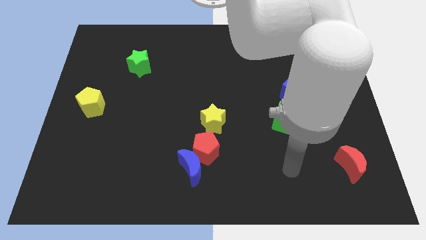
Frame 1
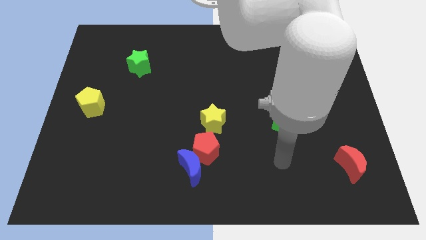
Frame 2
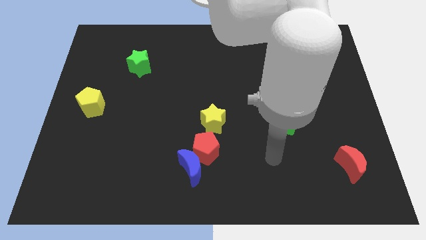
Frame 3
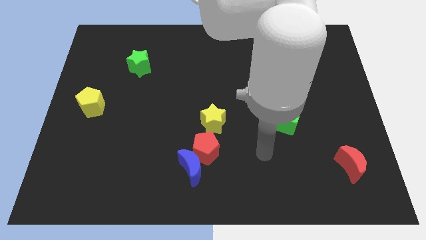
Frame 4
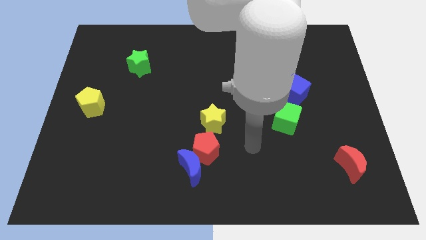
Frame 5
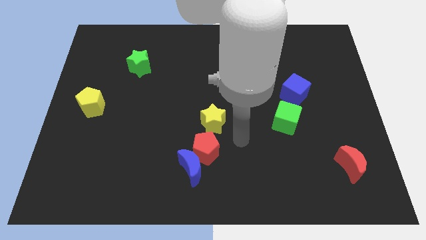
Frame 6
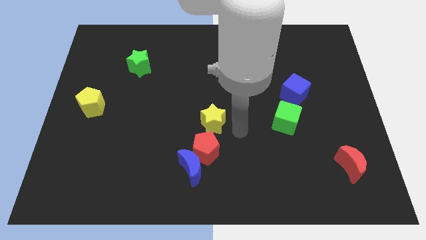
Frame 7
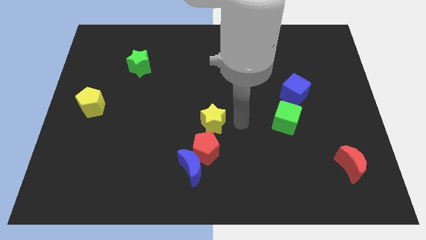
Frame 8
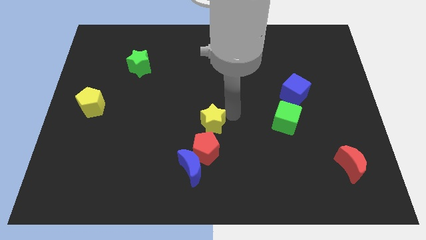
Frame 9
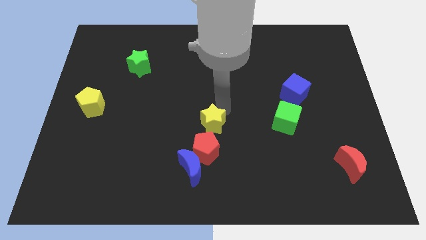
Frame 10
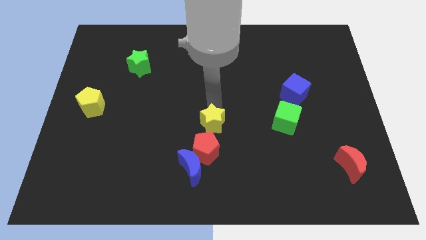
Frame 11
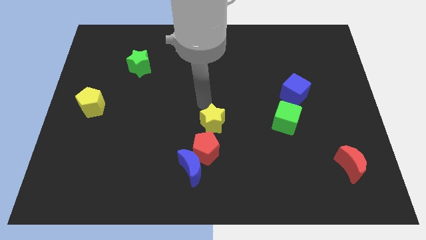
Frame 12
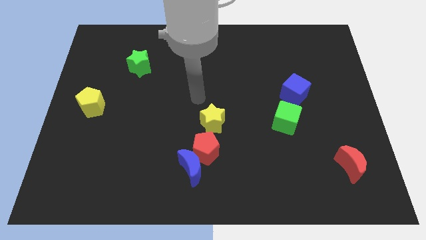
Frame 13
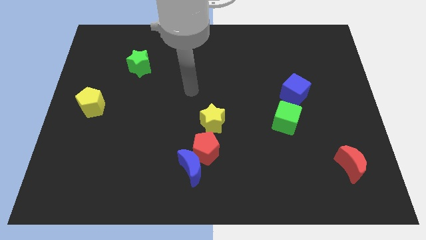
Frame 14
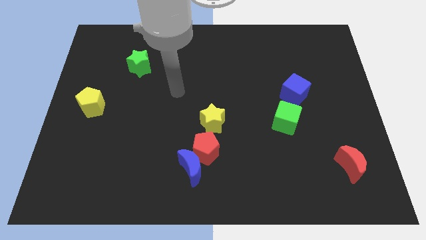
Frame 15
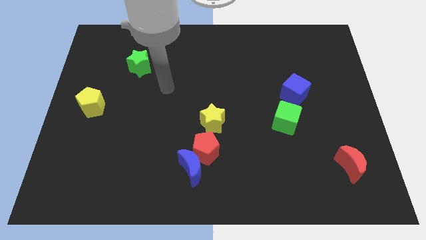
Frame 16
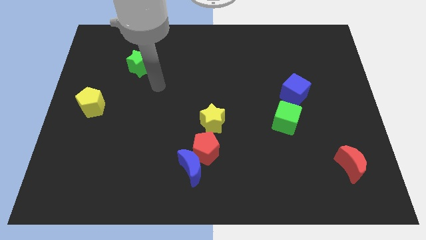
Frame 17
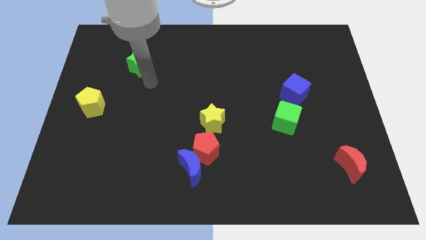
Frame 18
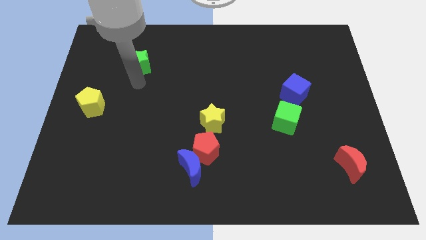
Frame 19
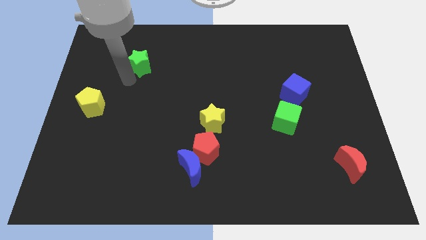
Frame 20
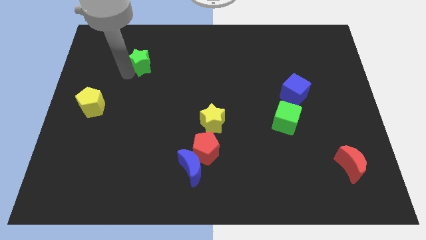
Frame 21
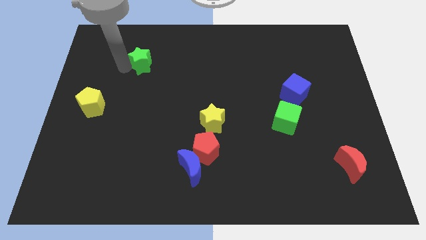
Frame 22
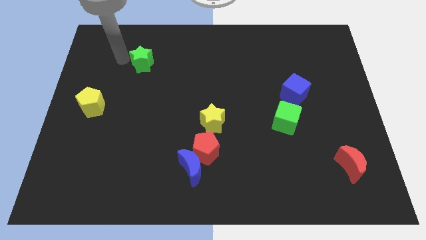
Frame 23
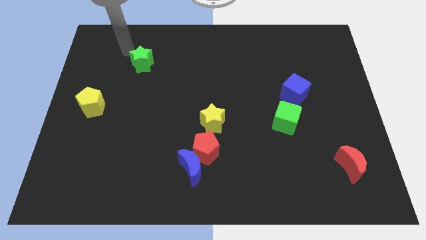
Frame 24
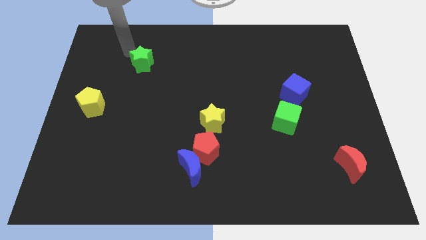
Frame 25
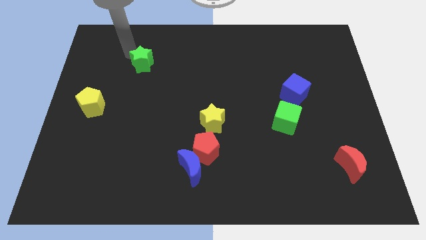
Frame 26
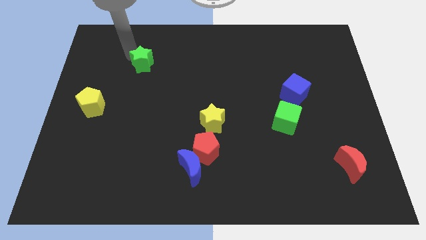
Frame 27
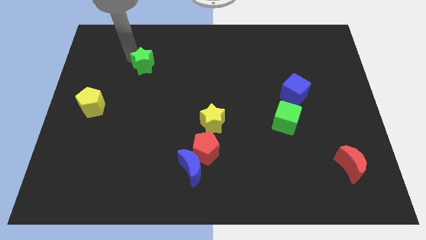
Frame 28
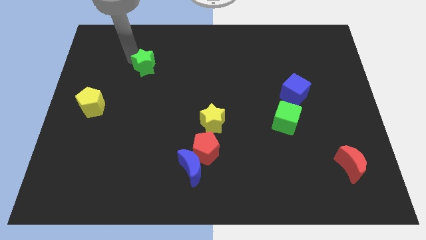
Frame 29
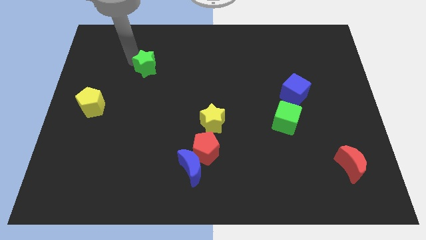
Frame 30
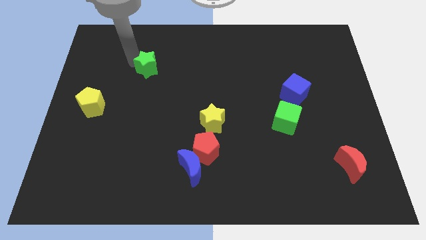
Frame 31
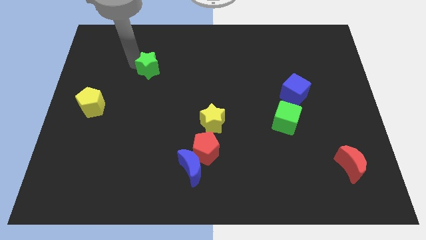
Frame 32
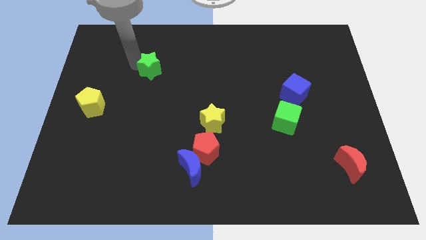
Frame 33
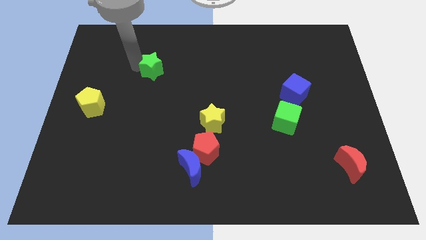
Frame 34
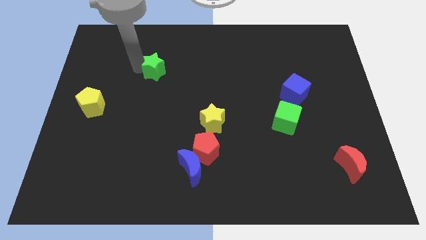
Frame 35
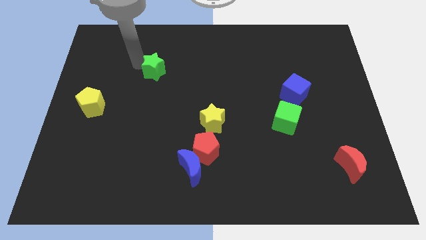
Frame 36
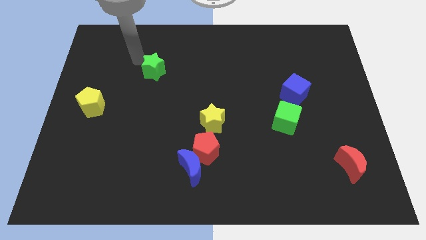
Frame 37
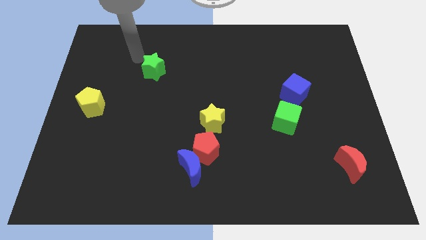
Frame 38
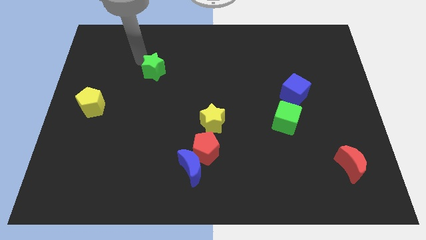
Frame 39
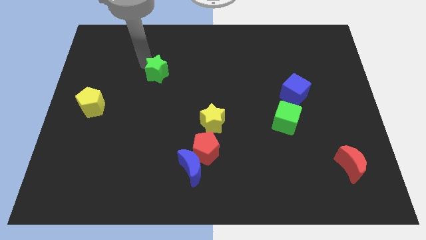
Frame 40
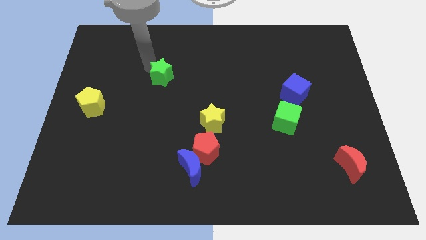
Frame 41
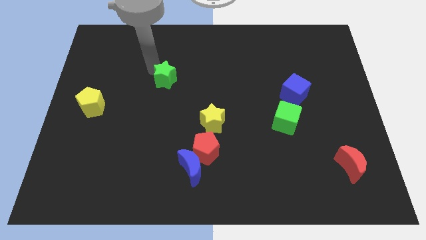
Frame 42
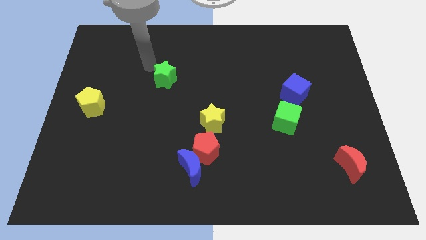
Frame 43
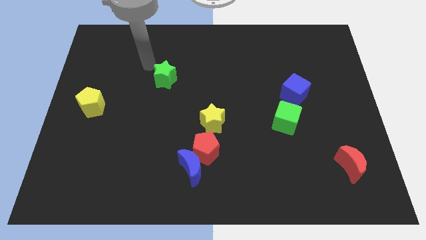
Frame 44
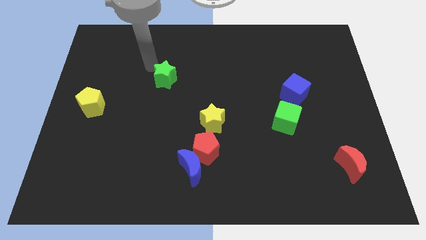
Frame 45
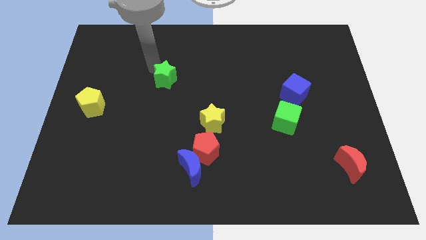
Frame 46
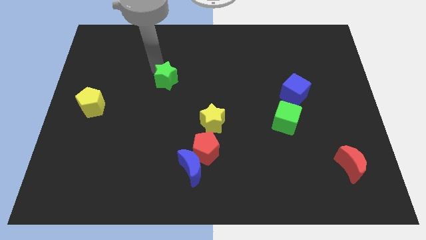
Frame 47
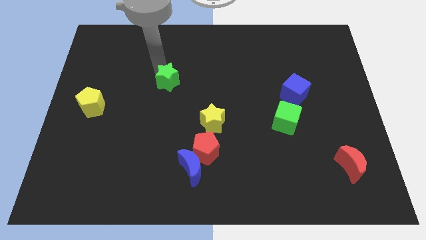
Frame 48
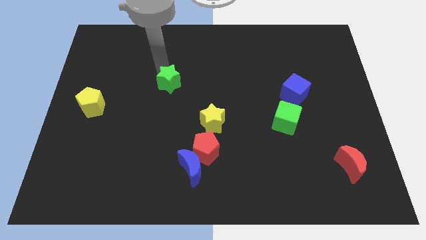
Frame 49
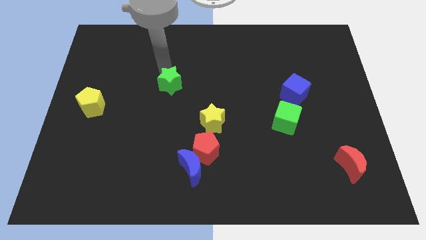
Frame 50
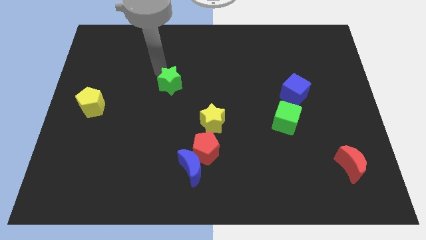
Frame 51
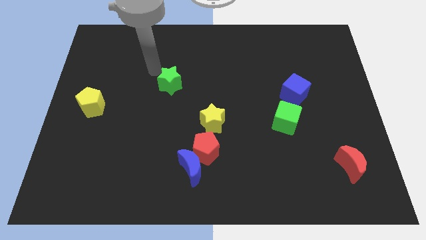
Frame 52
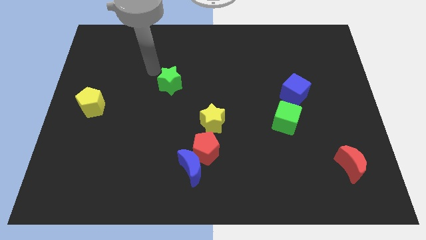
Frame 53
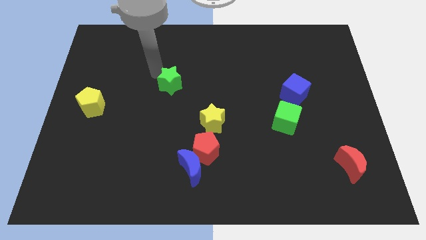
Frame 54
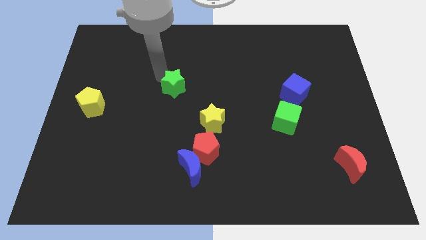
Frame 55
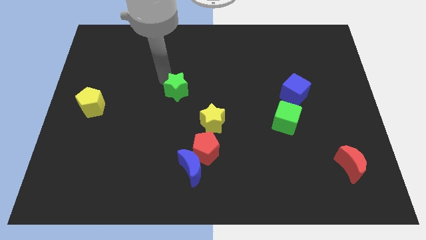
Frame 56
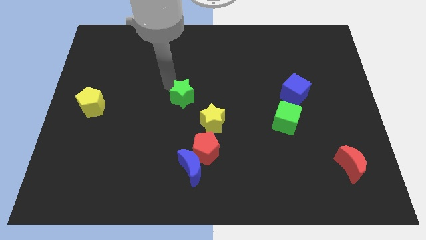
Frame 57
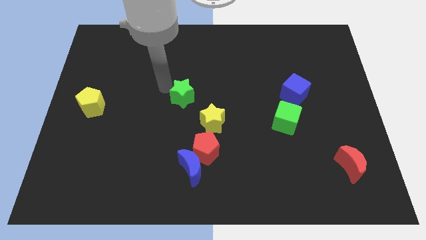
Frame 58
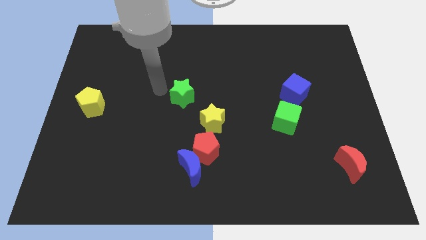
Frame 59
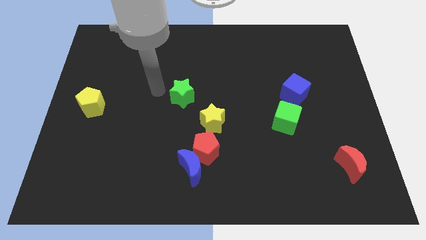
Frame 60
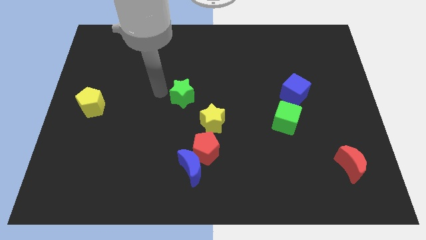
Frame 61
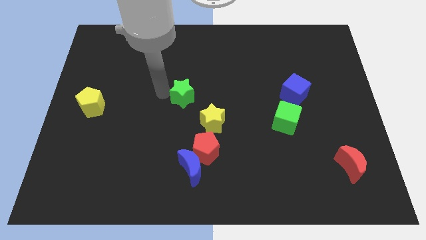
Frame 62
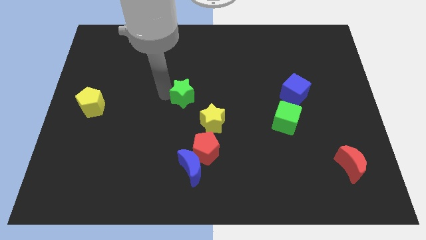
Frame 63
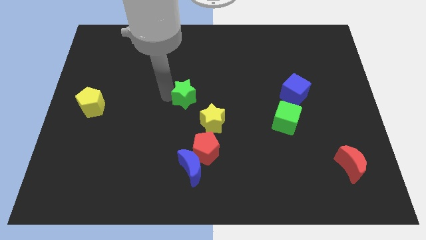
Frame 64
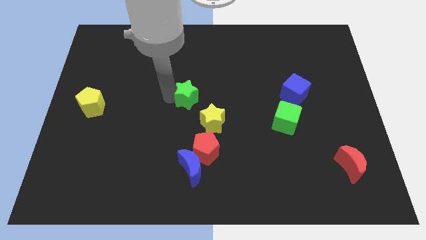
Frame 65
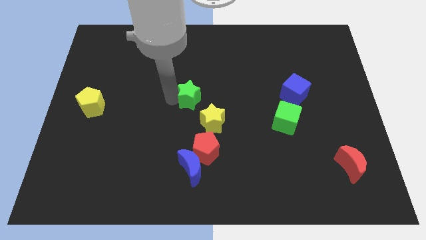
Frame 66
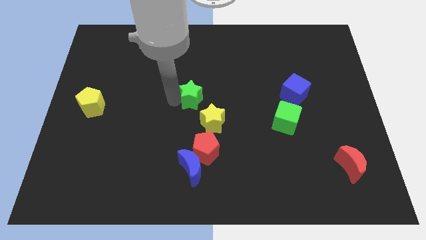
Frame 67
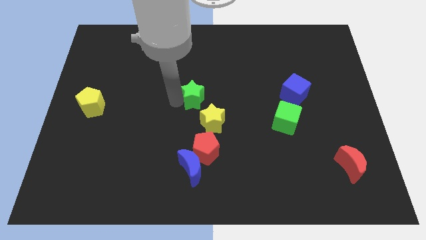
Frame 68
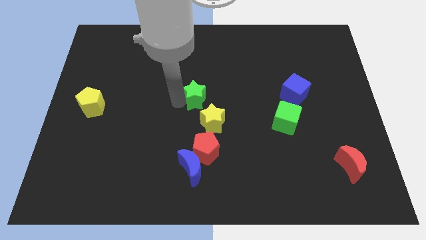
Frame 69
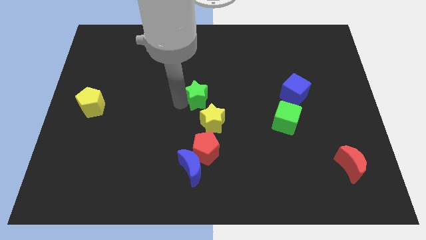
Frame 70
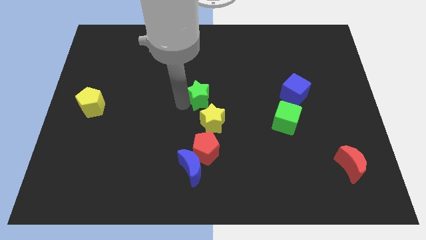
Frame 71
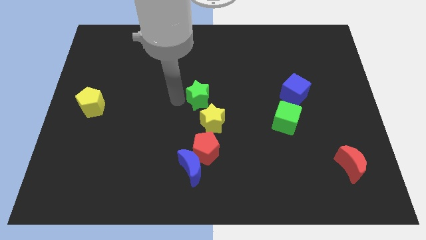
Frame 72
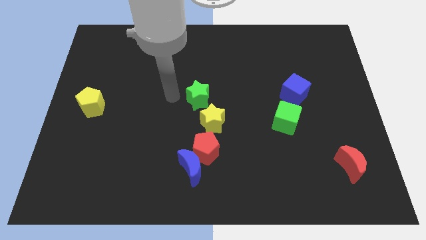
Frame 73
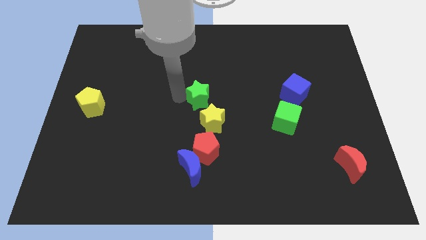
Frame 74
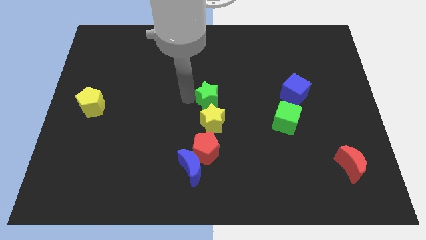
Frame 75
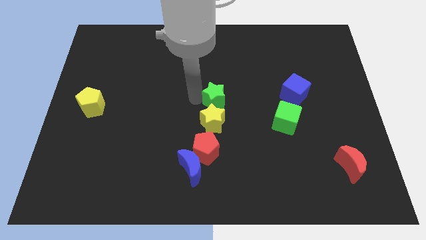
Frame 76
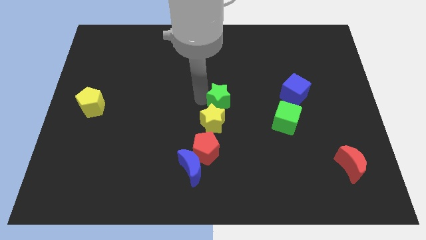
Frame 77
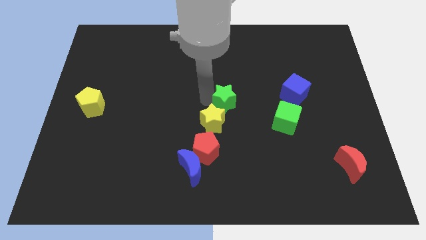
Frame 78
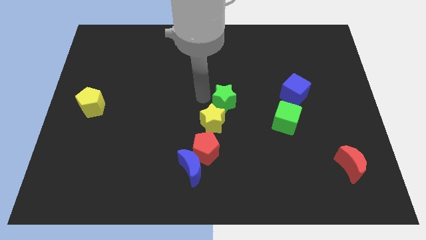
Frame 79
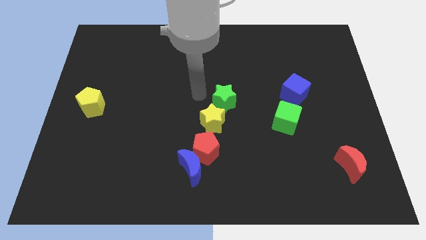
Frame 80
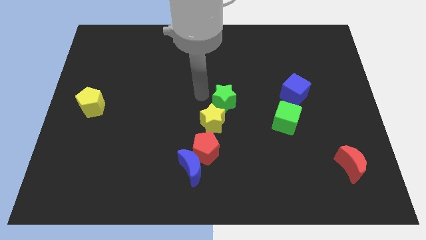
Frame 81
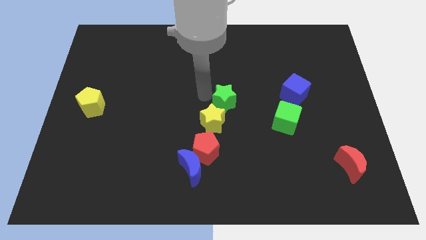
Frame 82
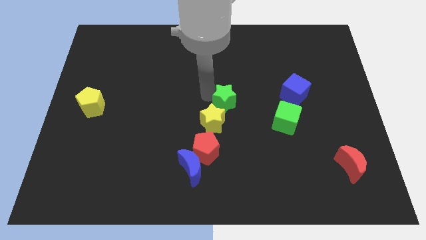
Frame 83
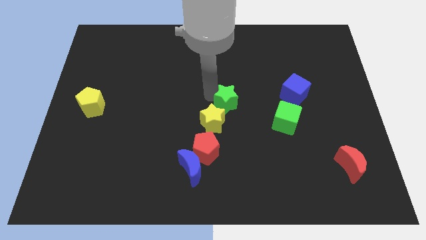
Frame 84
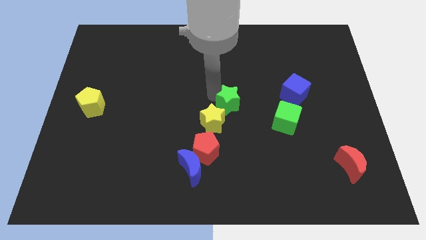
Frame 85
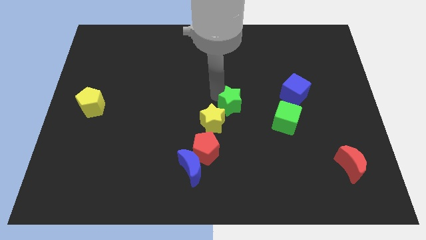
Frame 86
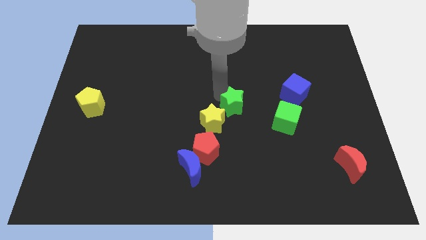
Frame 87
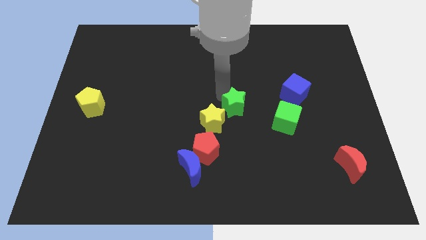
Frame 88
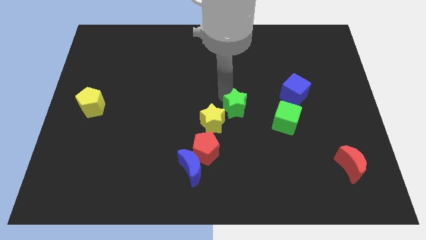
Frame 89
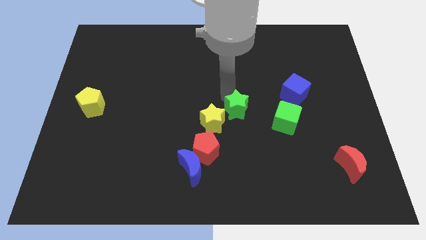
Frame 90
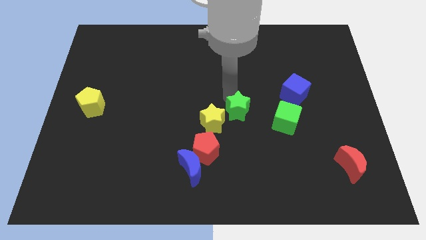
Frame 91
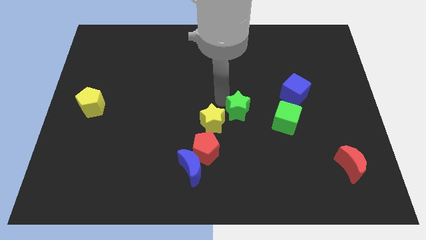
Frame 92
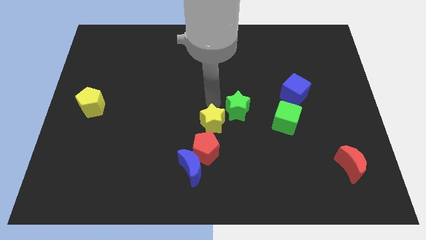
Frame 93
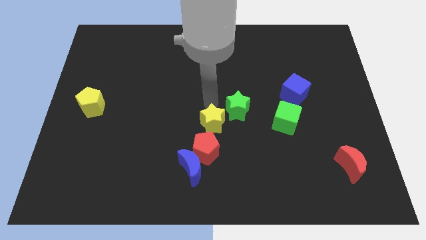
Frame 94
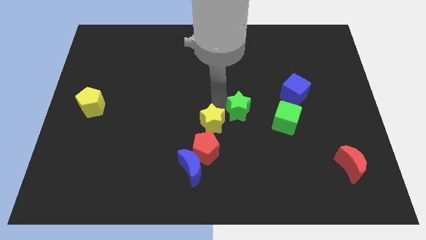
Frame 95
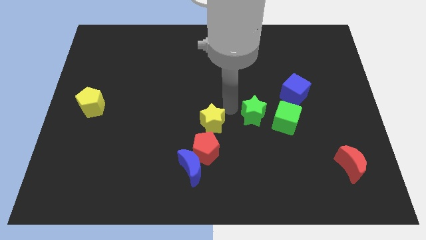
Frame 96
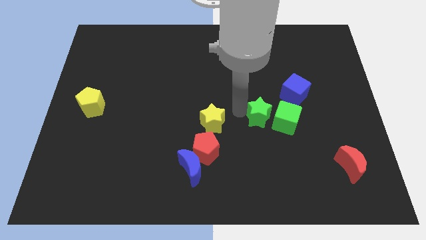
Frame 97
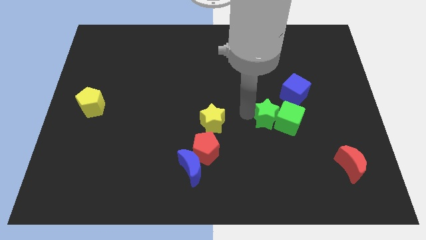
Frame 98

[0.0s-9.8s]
move the green star close to the green cube
